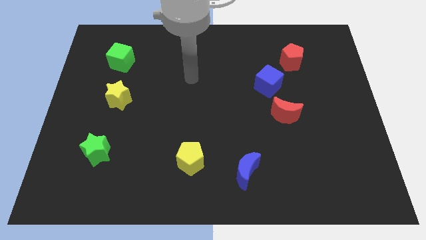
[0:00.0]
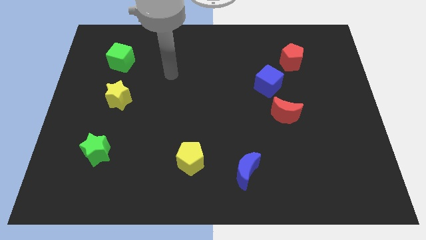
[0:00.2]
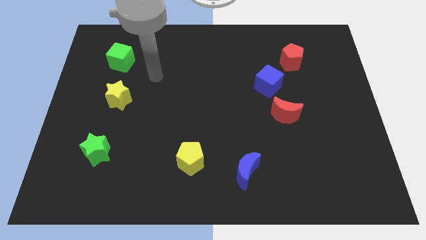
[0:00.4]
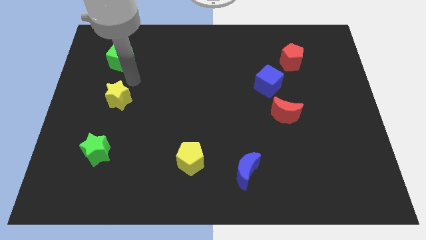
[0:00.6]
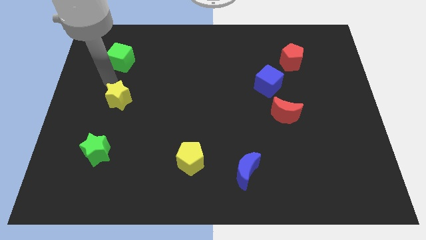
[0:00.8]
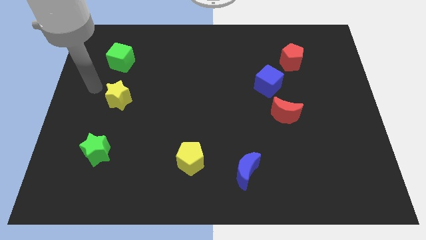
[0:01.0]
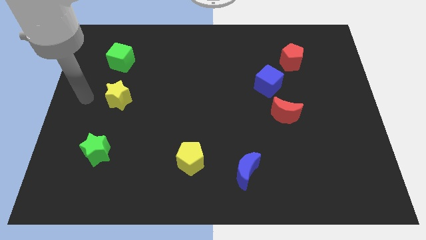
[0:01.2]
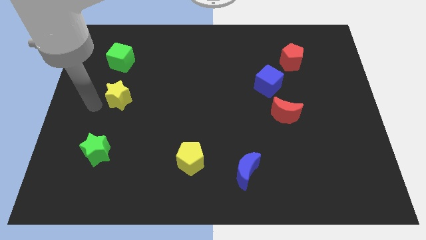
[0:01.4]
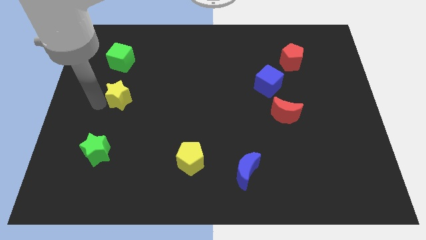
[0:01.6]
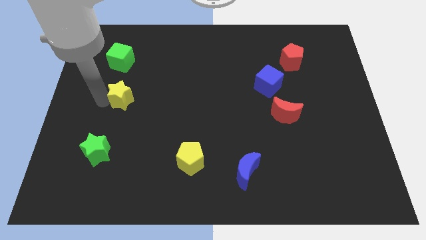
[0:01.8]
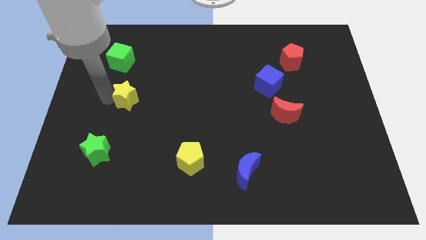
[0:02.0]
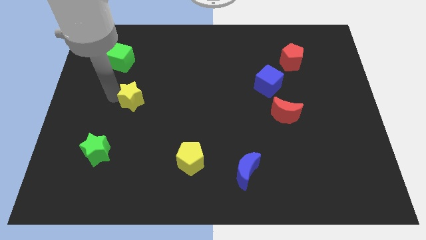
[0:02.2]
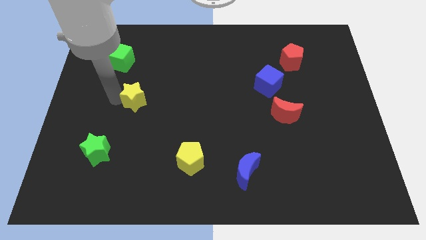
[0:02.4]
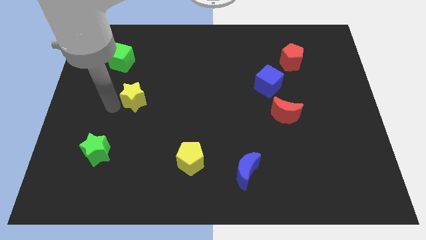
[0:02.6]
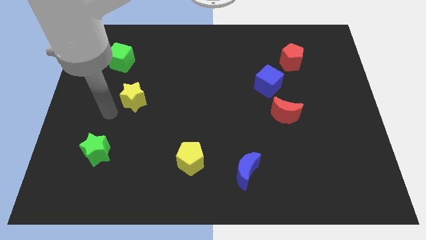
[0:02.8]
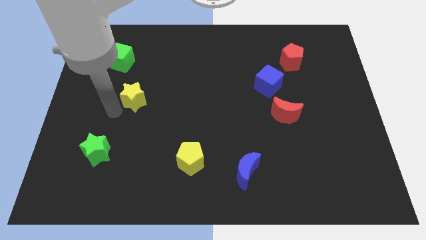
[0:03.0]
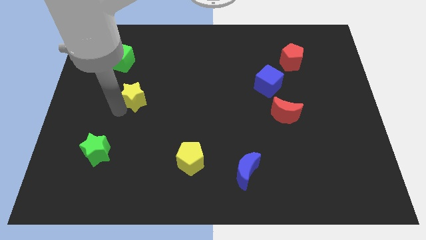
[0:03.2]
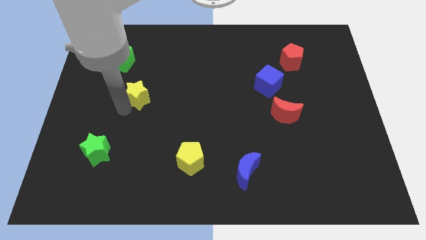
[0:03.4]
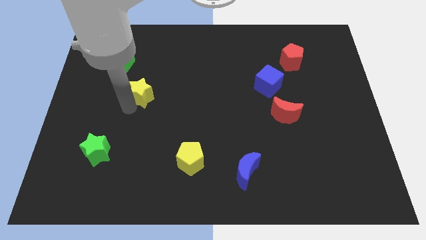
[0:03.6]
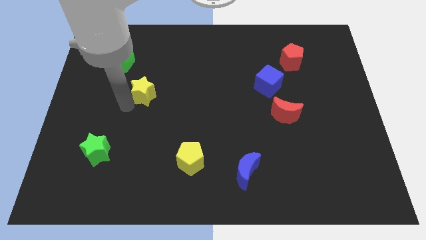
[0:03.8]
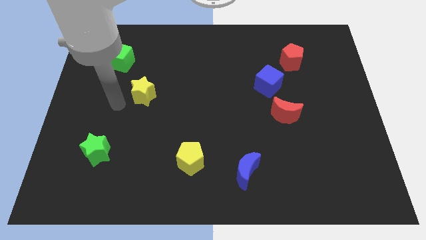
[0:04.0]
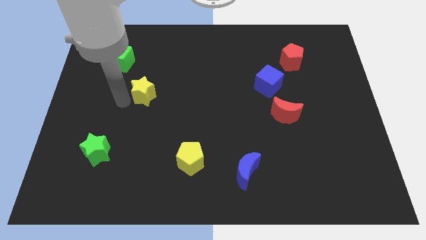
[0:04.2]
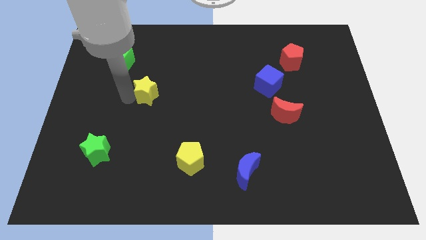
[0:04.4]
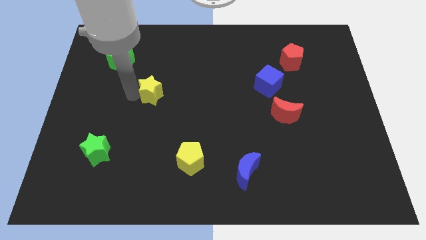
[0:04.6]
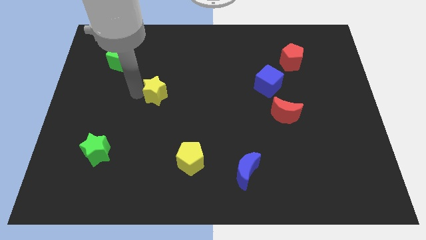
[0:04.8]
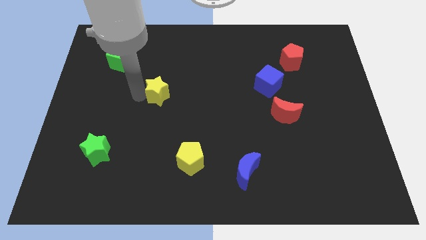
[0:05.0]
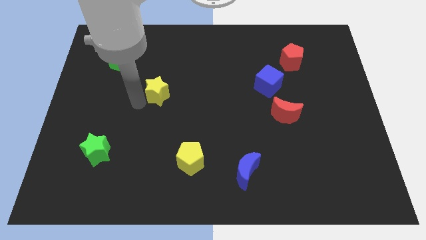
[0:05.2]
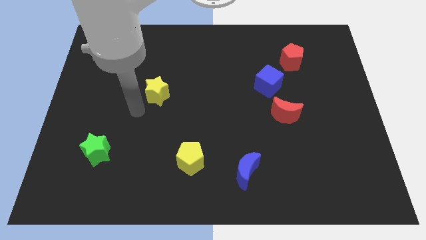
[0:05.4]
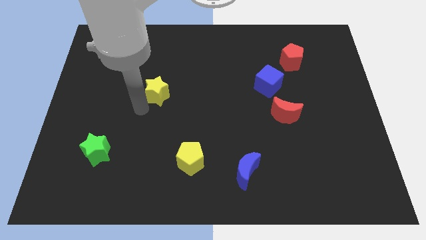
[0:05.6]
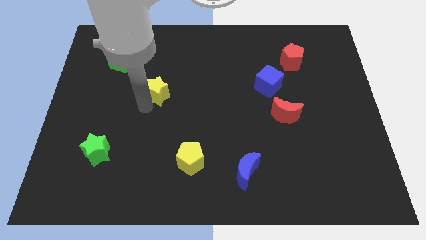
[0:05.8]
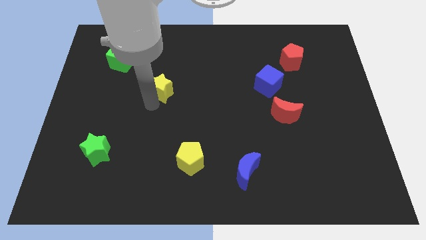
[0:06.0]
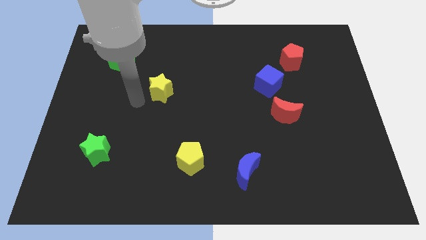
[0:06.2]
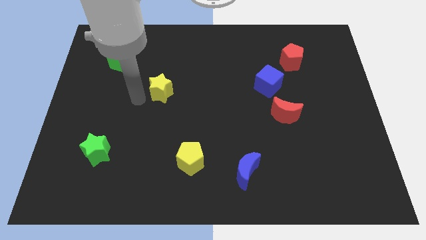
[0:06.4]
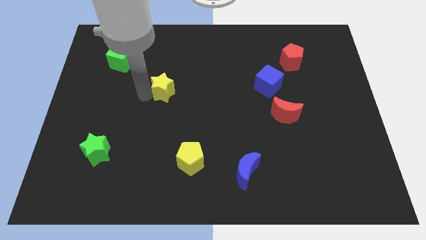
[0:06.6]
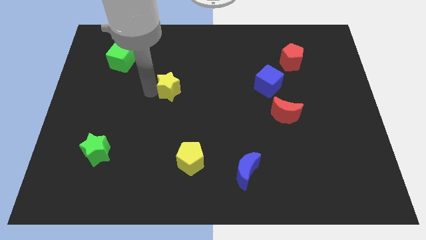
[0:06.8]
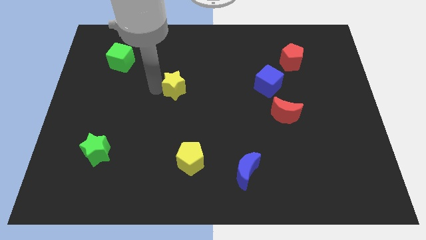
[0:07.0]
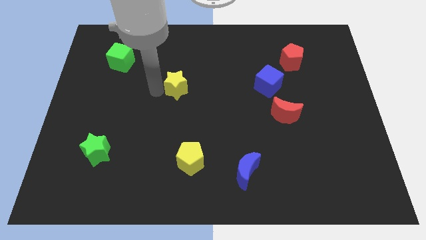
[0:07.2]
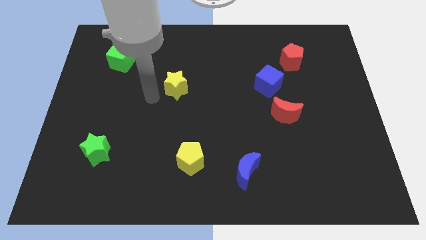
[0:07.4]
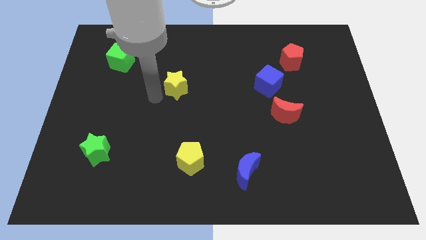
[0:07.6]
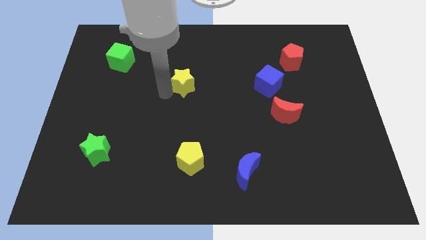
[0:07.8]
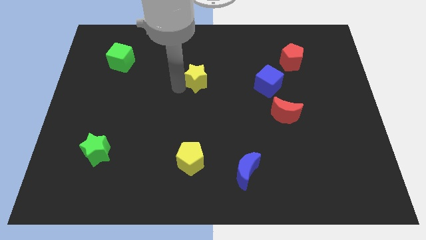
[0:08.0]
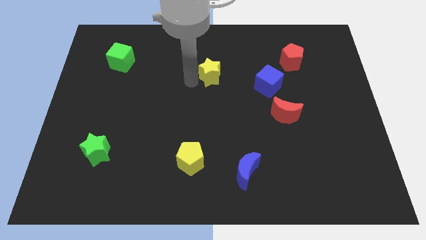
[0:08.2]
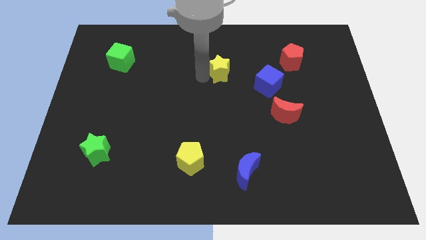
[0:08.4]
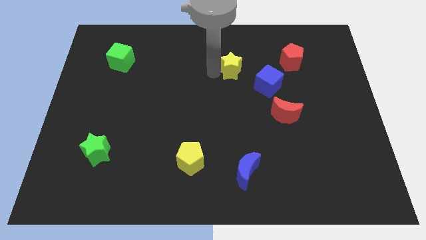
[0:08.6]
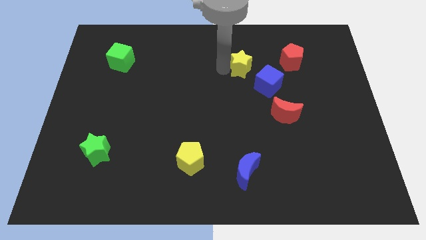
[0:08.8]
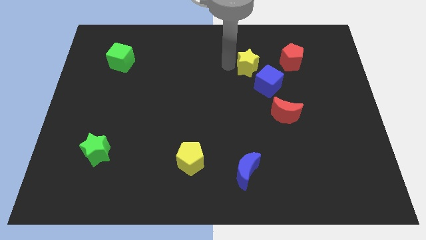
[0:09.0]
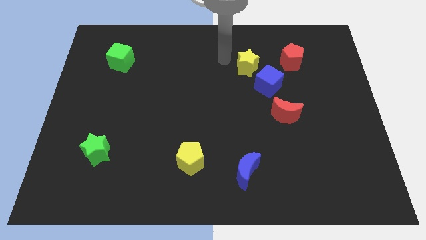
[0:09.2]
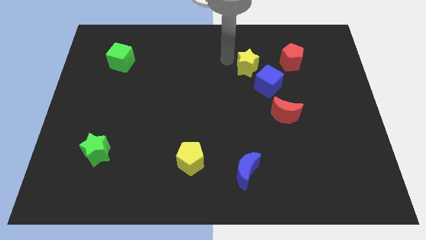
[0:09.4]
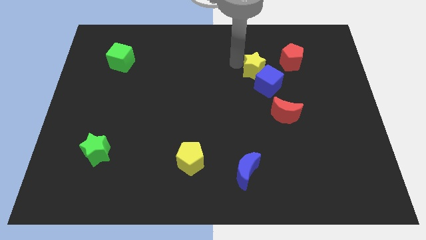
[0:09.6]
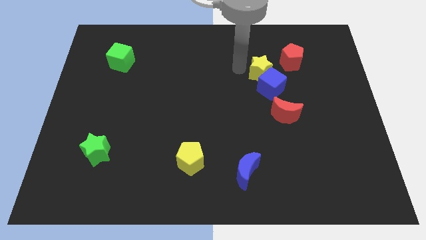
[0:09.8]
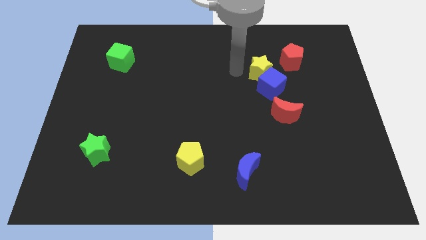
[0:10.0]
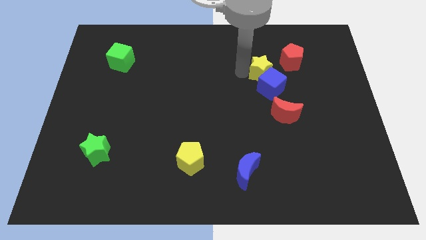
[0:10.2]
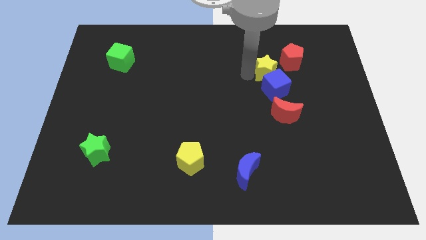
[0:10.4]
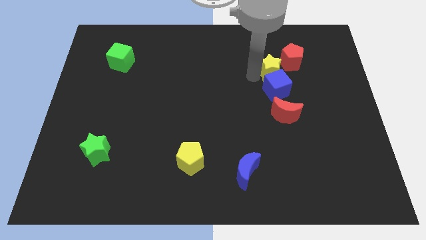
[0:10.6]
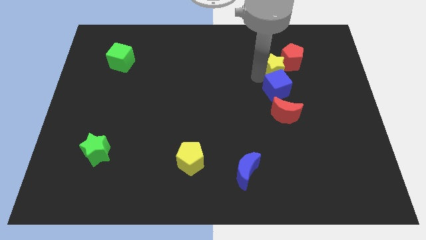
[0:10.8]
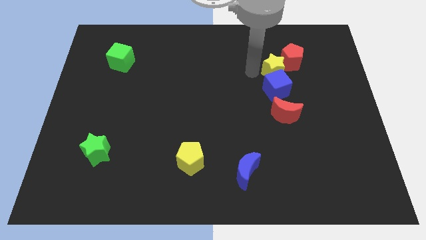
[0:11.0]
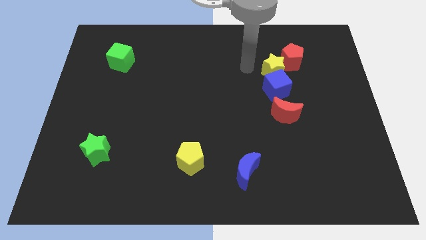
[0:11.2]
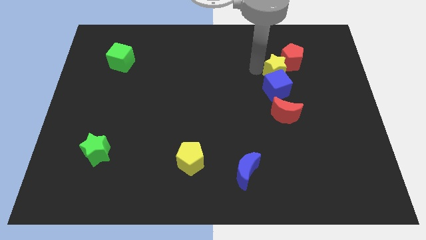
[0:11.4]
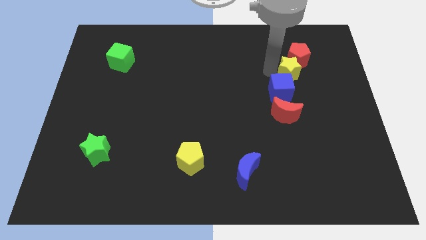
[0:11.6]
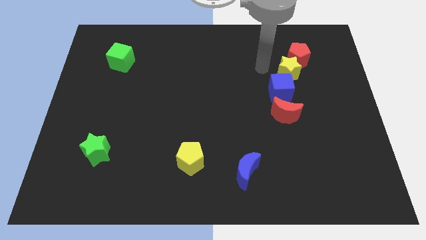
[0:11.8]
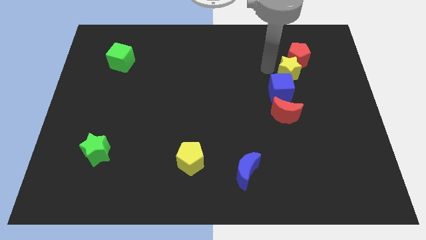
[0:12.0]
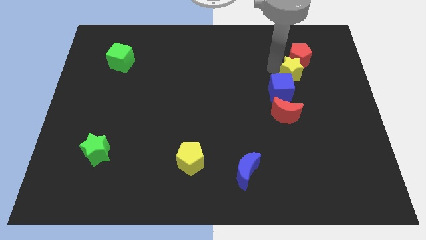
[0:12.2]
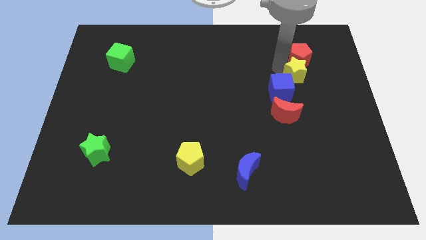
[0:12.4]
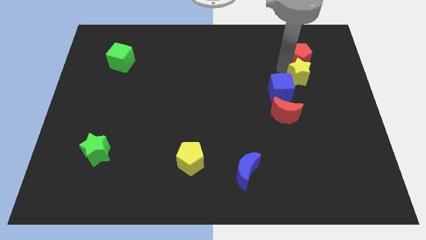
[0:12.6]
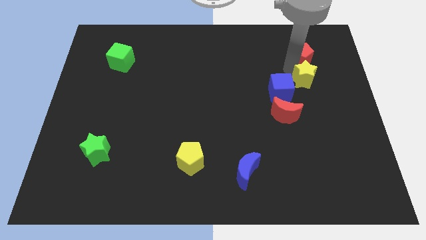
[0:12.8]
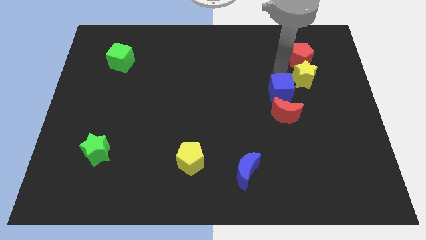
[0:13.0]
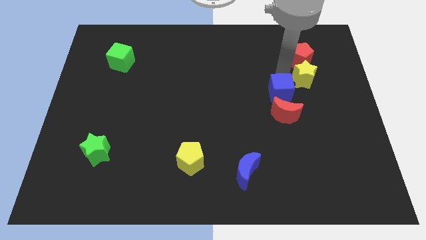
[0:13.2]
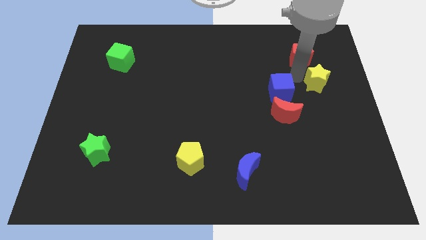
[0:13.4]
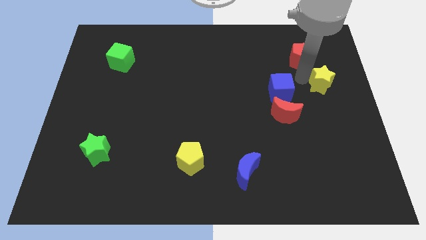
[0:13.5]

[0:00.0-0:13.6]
slide the yellow star to the right side
